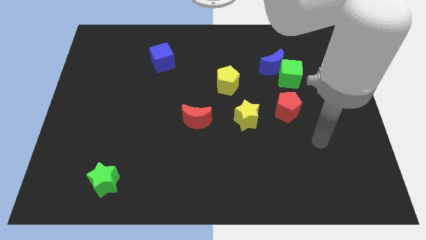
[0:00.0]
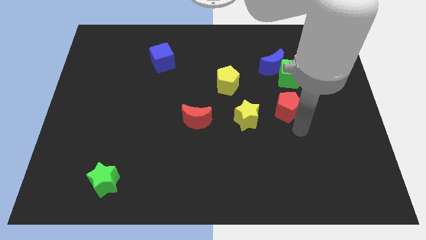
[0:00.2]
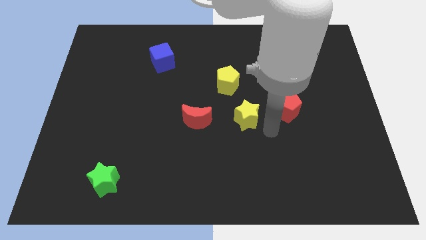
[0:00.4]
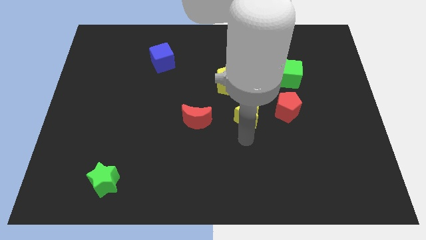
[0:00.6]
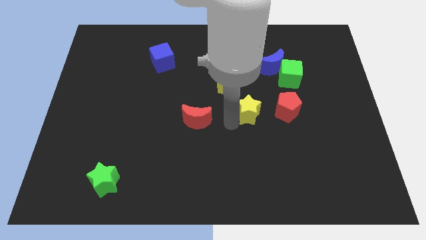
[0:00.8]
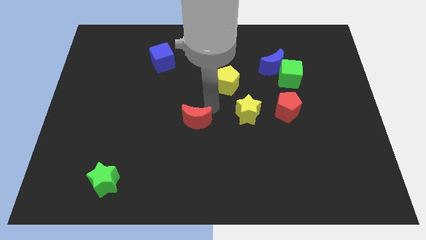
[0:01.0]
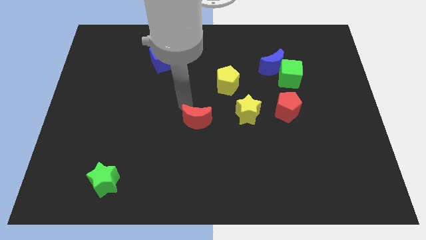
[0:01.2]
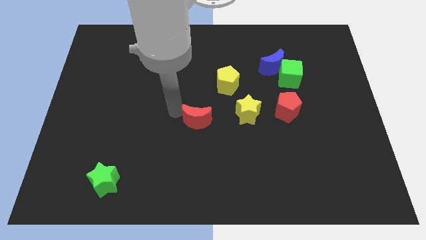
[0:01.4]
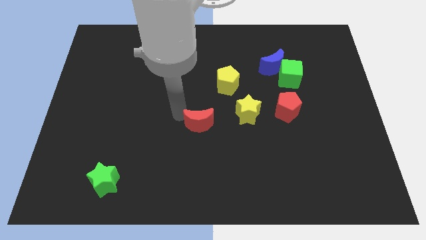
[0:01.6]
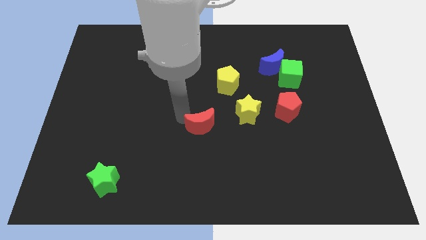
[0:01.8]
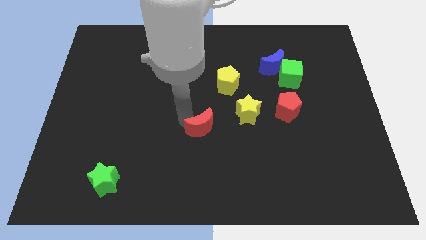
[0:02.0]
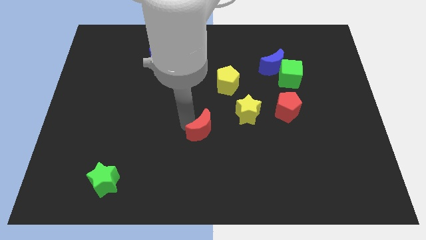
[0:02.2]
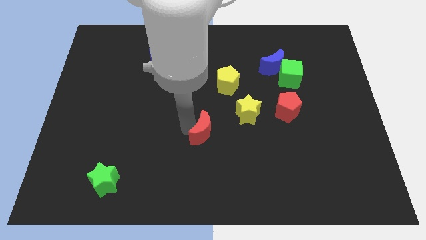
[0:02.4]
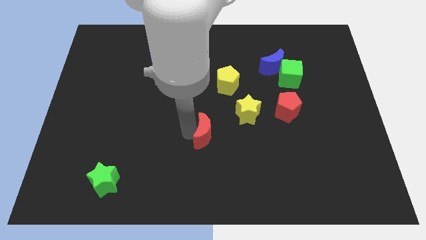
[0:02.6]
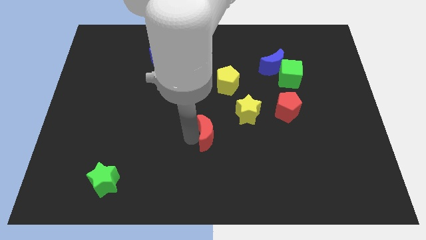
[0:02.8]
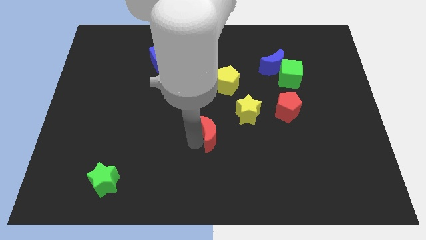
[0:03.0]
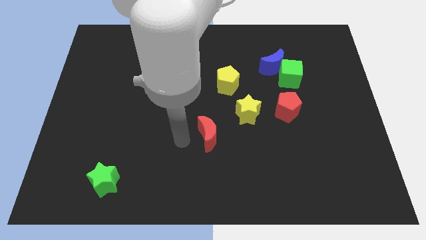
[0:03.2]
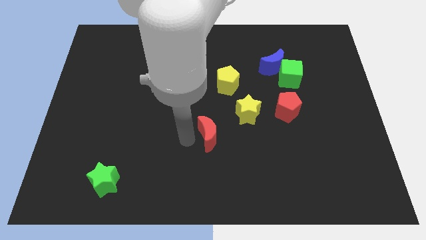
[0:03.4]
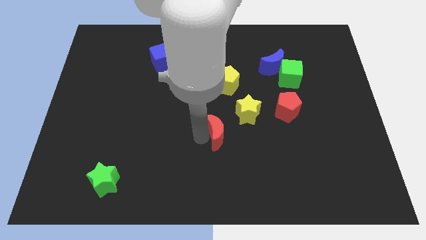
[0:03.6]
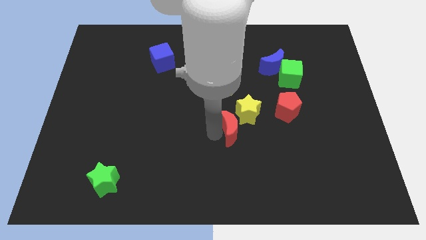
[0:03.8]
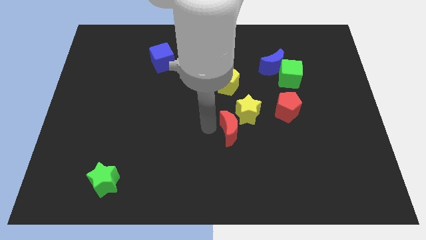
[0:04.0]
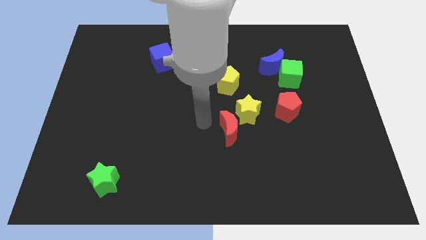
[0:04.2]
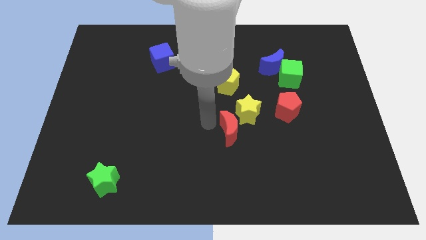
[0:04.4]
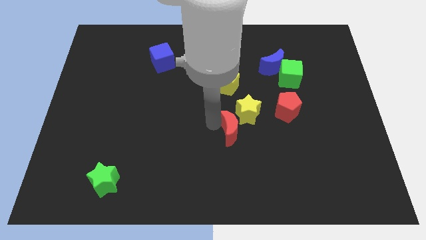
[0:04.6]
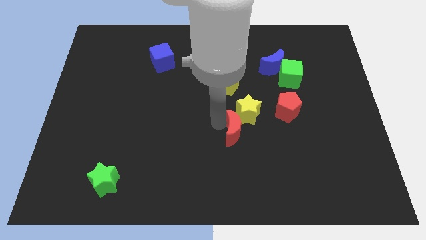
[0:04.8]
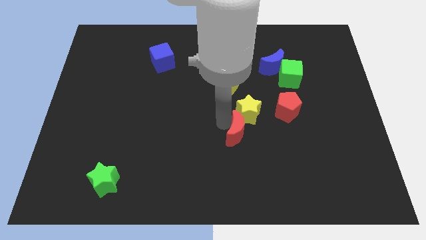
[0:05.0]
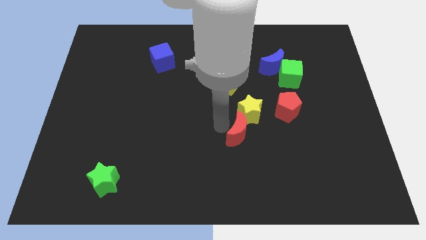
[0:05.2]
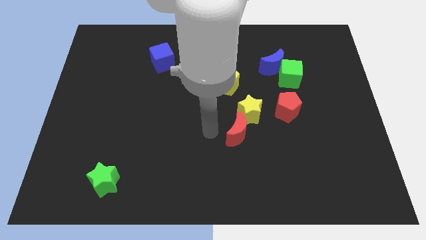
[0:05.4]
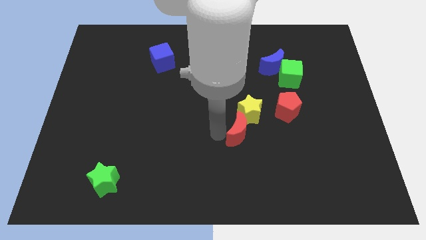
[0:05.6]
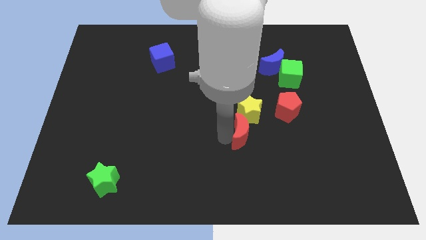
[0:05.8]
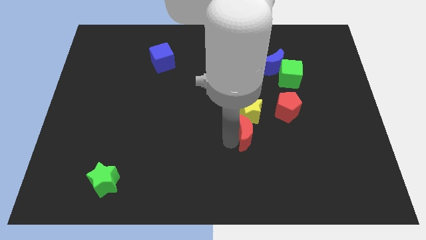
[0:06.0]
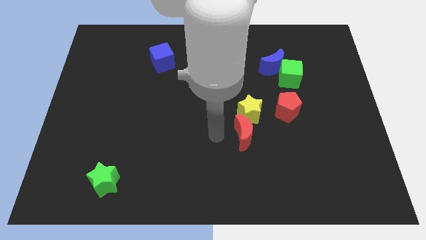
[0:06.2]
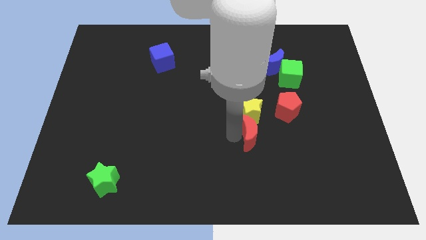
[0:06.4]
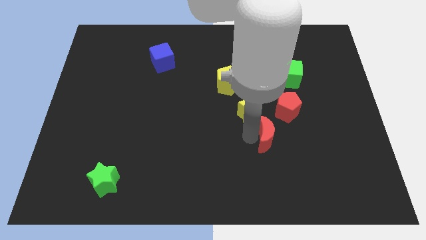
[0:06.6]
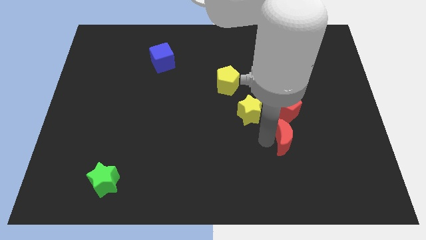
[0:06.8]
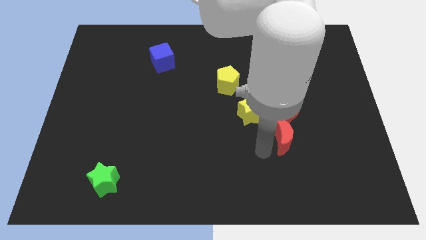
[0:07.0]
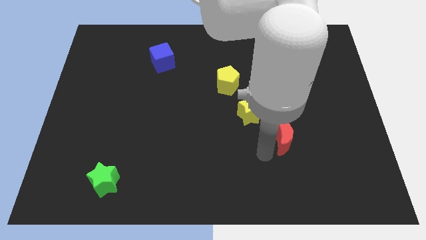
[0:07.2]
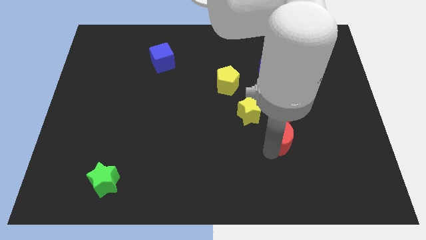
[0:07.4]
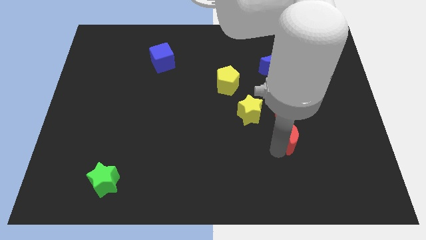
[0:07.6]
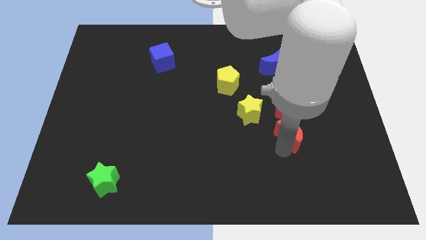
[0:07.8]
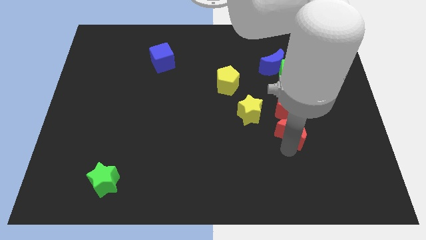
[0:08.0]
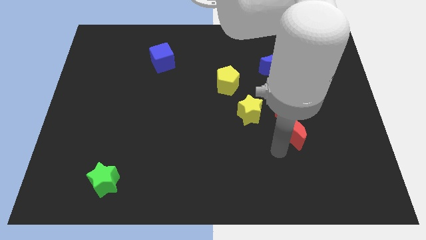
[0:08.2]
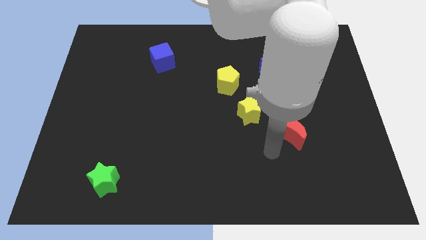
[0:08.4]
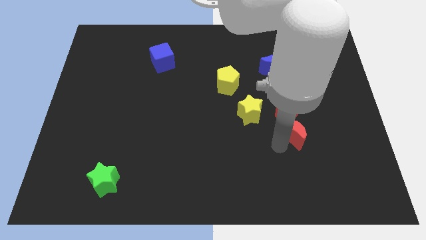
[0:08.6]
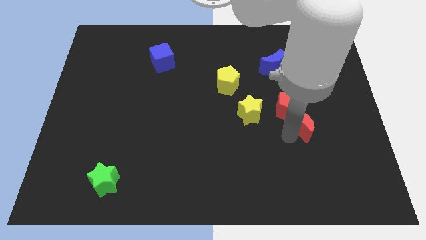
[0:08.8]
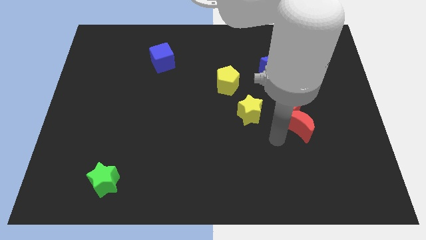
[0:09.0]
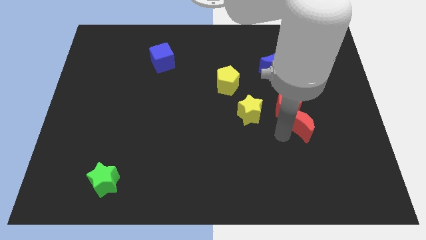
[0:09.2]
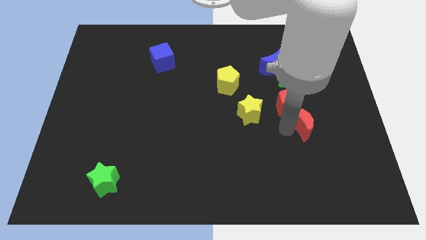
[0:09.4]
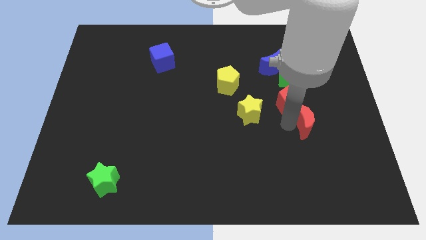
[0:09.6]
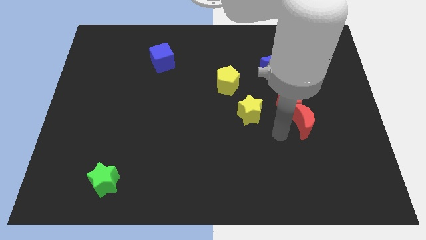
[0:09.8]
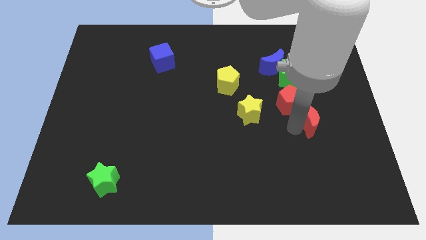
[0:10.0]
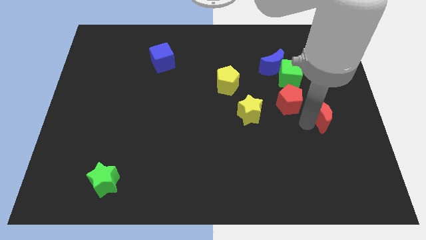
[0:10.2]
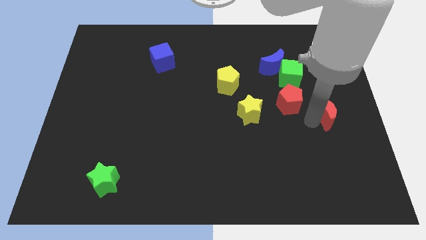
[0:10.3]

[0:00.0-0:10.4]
move the red moon to the center right

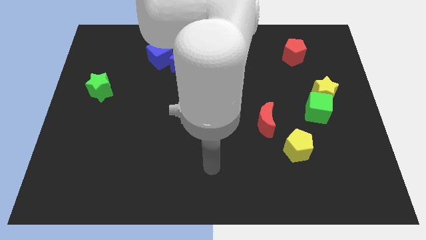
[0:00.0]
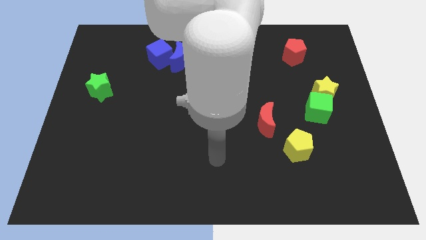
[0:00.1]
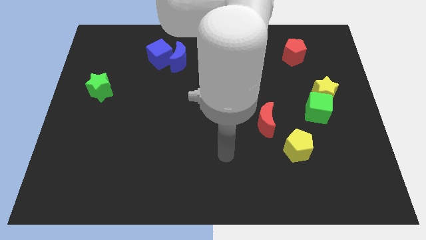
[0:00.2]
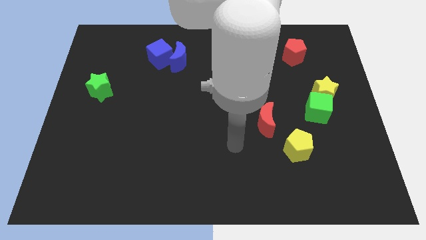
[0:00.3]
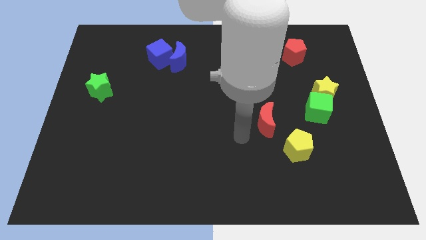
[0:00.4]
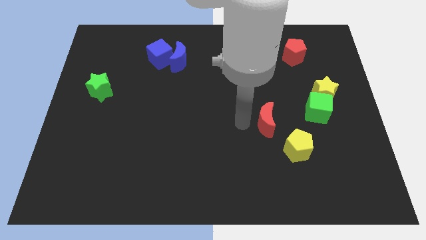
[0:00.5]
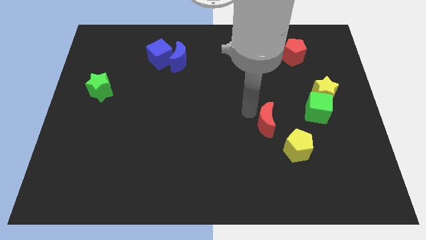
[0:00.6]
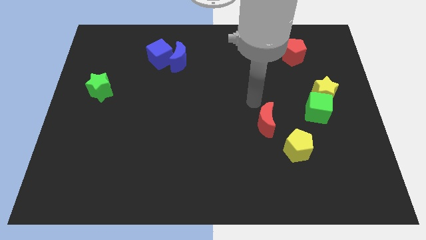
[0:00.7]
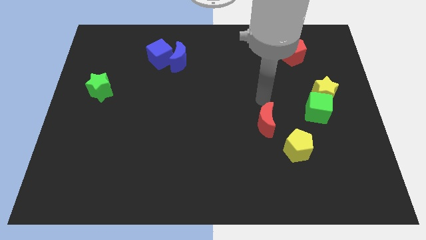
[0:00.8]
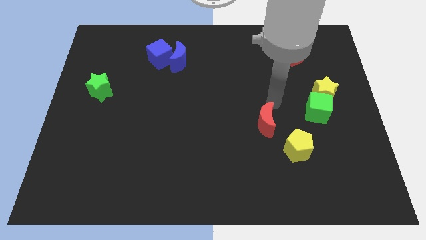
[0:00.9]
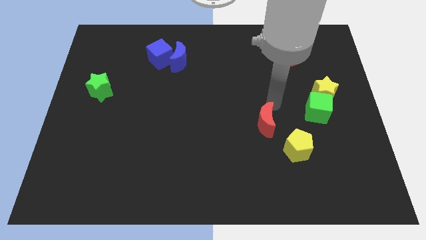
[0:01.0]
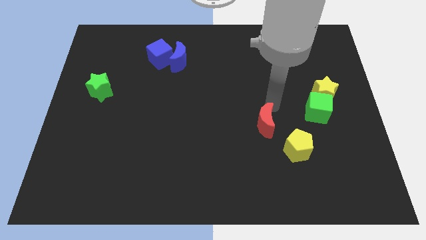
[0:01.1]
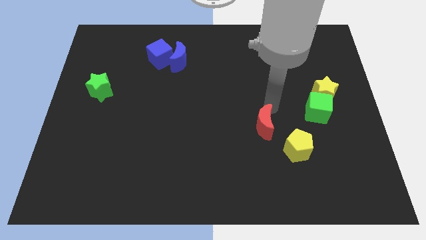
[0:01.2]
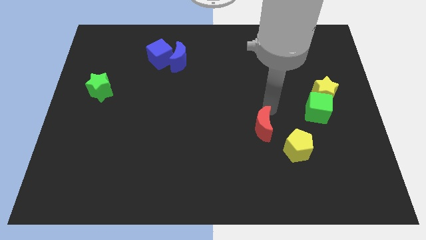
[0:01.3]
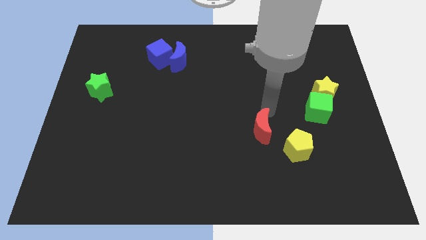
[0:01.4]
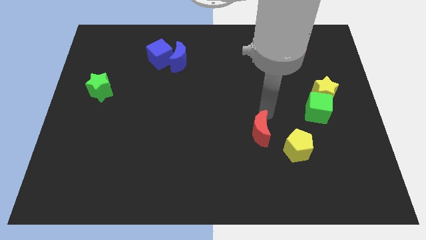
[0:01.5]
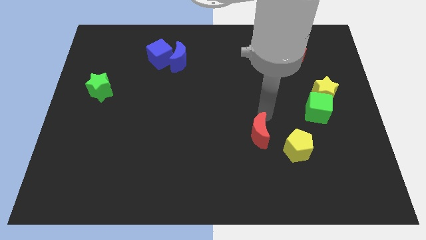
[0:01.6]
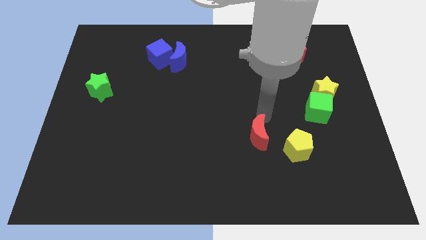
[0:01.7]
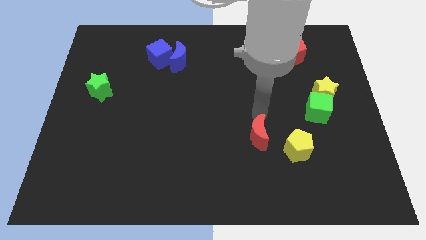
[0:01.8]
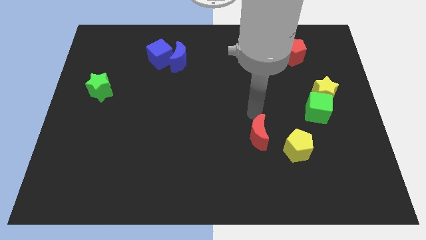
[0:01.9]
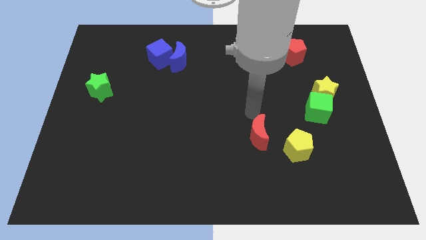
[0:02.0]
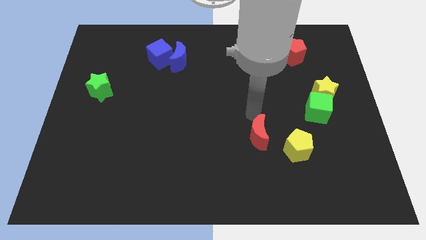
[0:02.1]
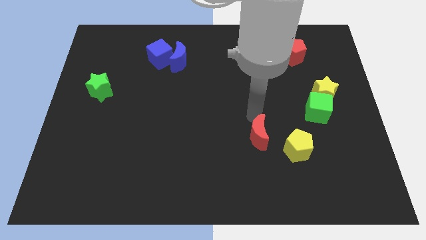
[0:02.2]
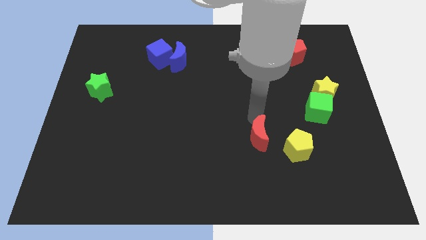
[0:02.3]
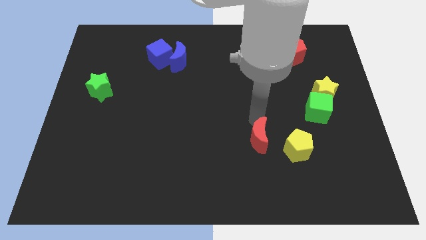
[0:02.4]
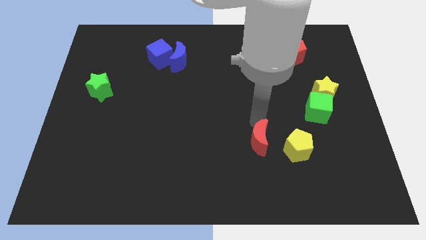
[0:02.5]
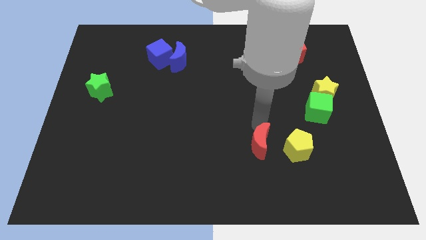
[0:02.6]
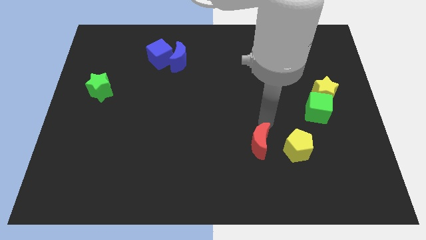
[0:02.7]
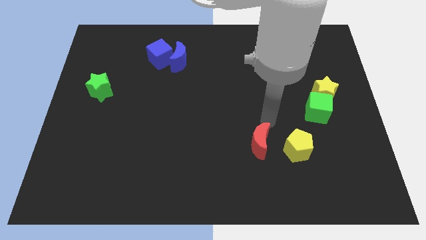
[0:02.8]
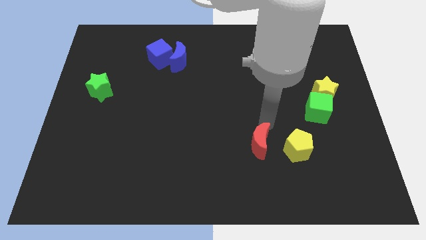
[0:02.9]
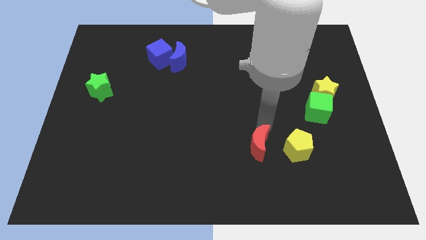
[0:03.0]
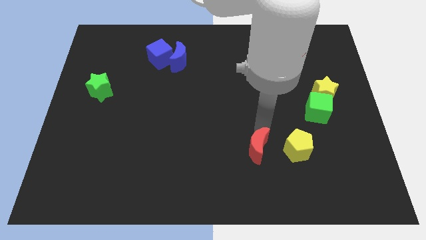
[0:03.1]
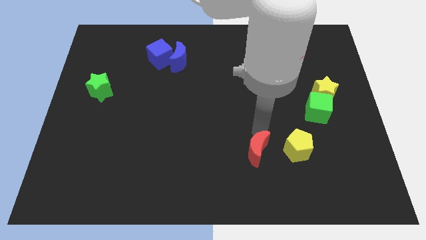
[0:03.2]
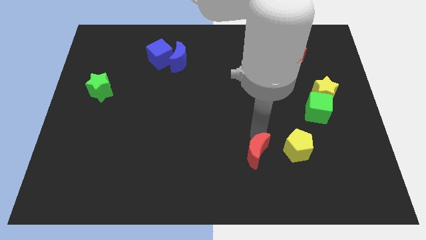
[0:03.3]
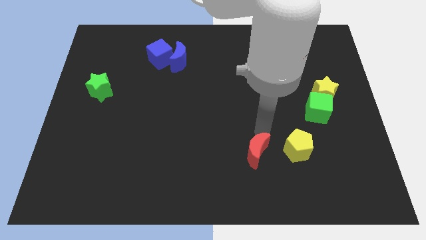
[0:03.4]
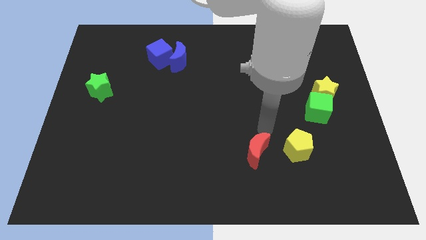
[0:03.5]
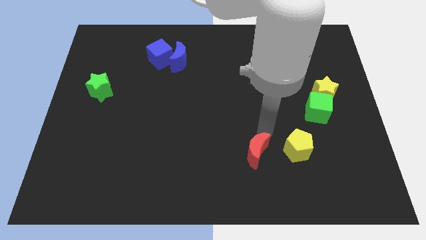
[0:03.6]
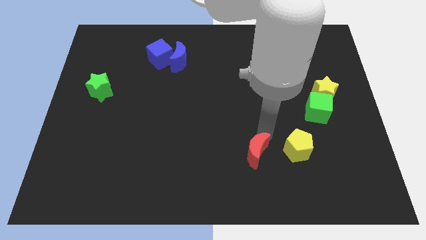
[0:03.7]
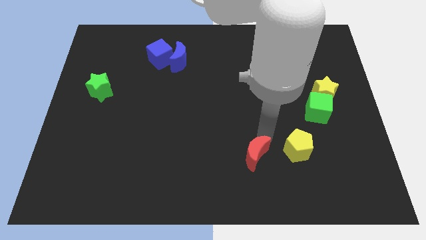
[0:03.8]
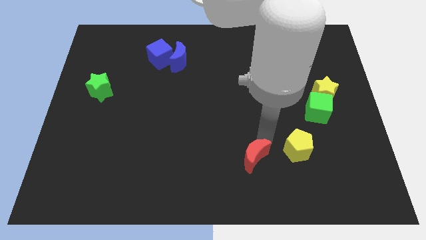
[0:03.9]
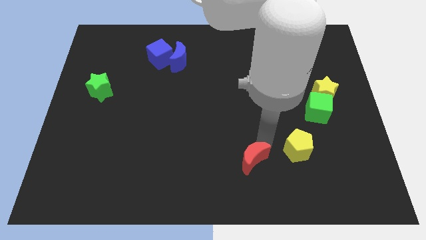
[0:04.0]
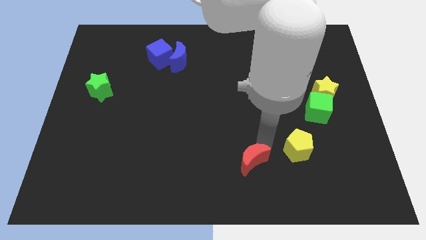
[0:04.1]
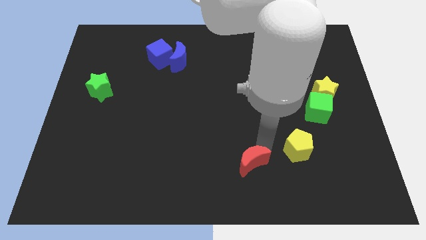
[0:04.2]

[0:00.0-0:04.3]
move the red moon to the bottom side
